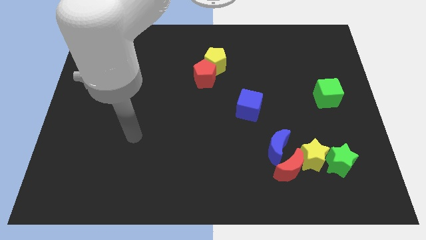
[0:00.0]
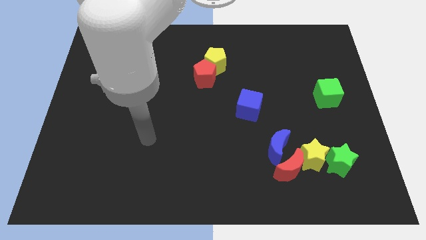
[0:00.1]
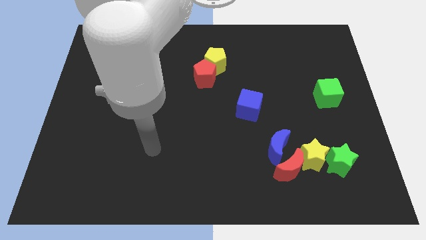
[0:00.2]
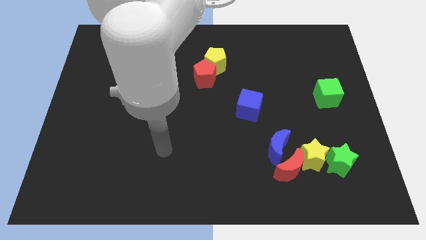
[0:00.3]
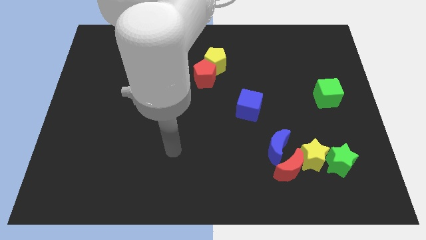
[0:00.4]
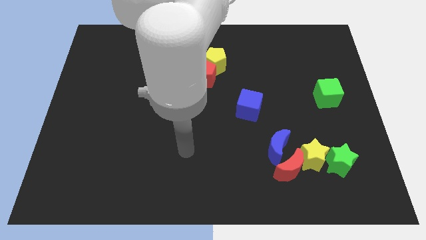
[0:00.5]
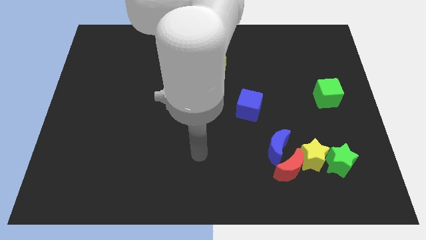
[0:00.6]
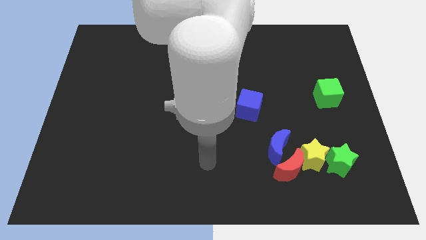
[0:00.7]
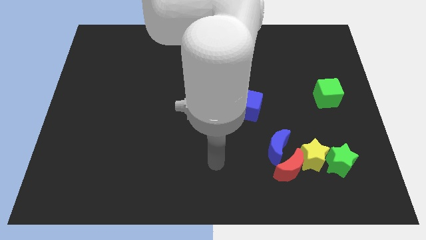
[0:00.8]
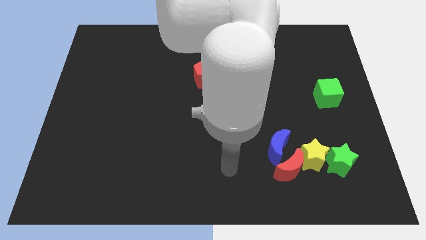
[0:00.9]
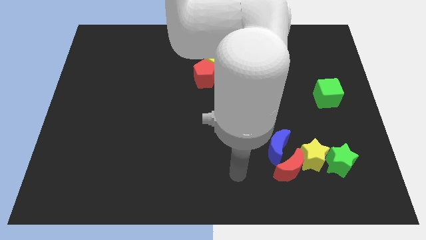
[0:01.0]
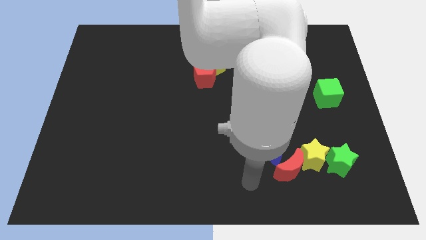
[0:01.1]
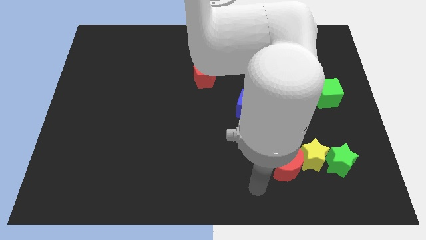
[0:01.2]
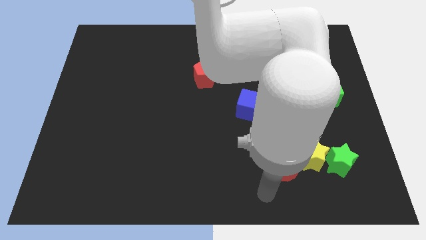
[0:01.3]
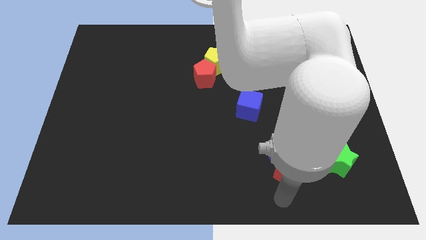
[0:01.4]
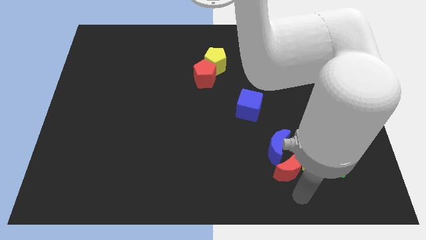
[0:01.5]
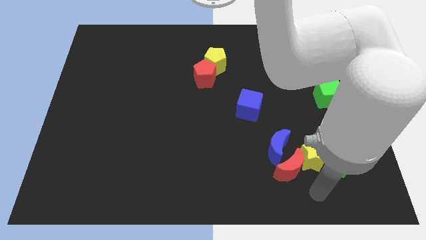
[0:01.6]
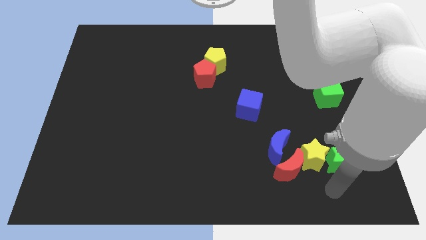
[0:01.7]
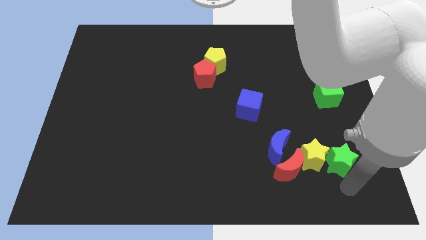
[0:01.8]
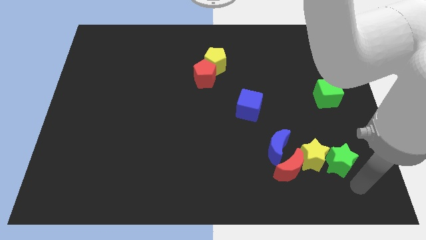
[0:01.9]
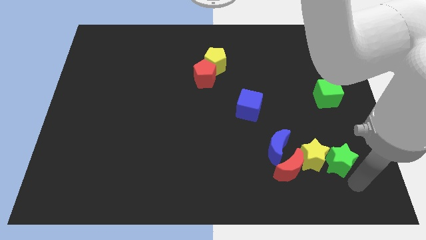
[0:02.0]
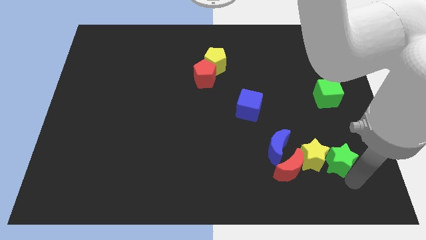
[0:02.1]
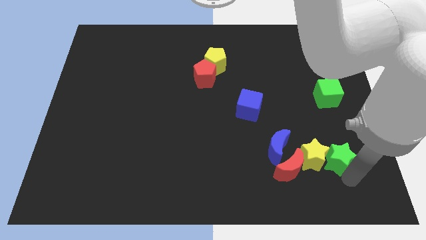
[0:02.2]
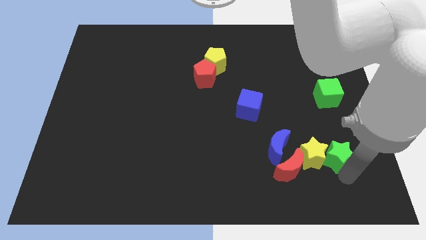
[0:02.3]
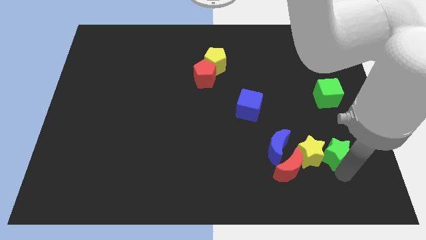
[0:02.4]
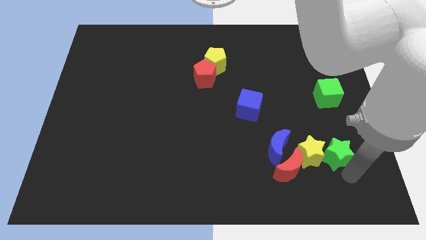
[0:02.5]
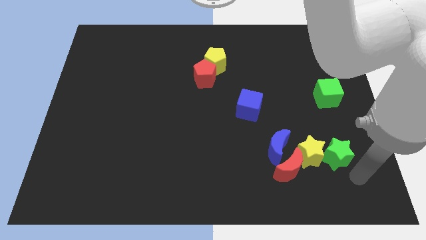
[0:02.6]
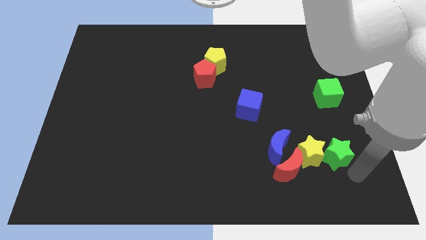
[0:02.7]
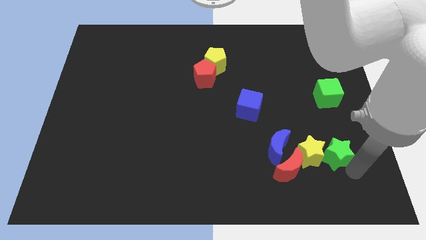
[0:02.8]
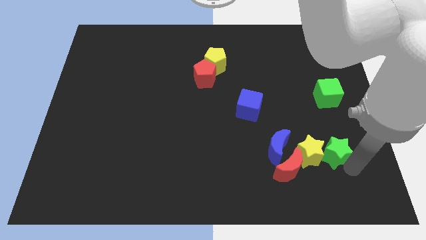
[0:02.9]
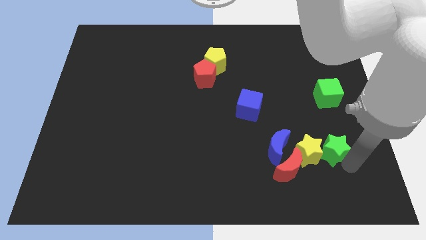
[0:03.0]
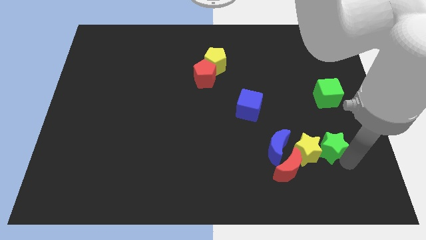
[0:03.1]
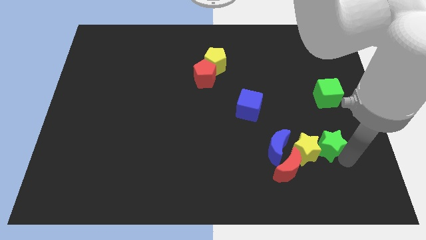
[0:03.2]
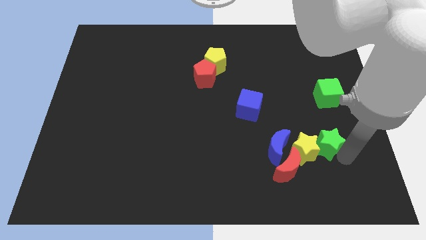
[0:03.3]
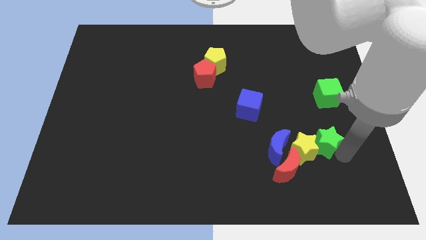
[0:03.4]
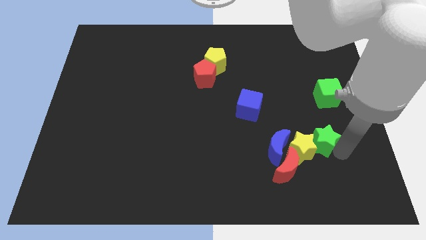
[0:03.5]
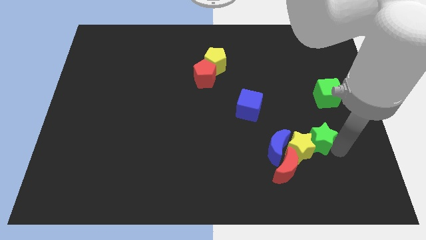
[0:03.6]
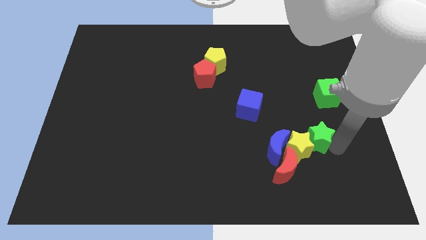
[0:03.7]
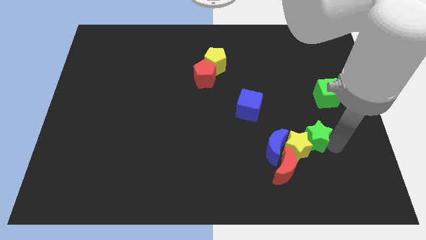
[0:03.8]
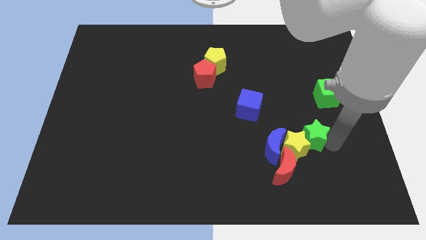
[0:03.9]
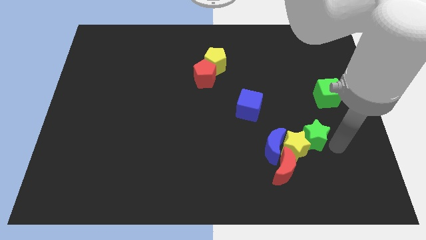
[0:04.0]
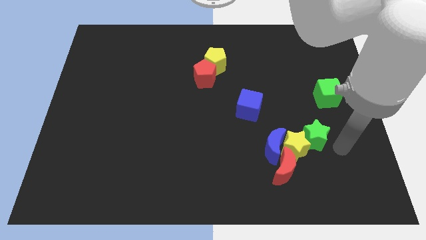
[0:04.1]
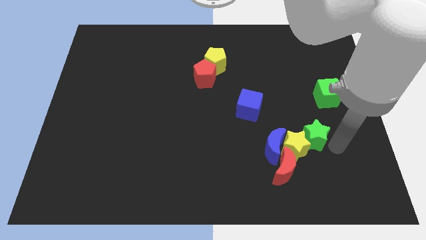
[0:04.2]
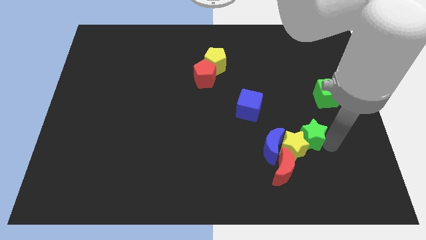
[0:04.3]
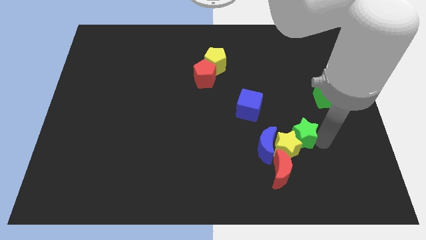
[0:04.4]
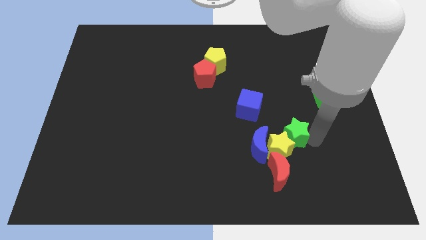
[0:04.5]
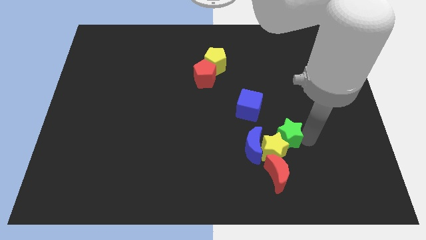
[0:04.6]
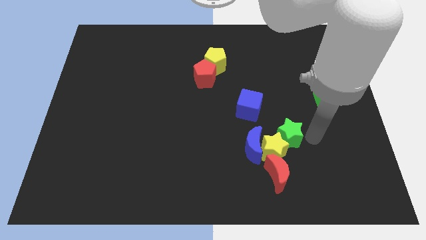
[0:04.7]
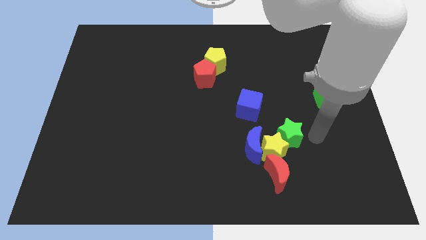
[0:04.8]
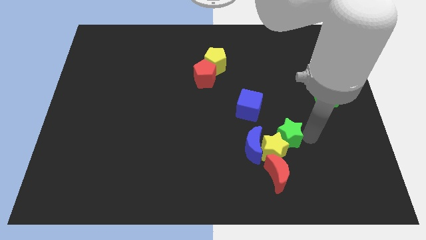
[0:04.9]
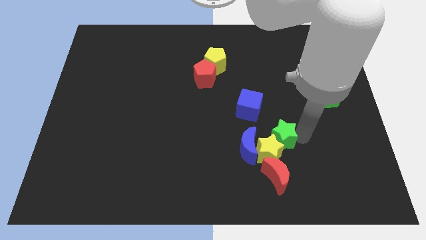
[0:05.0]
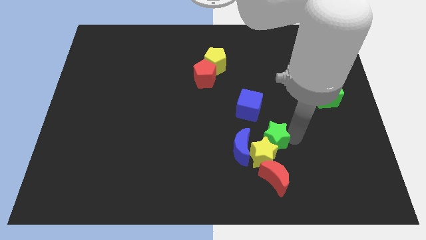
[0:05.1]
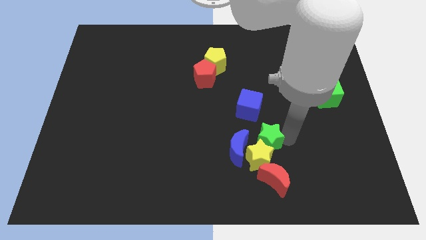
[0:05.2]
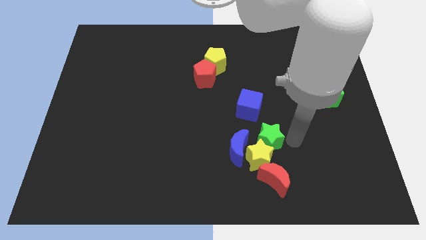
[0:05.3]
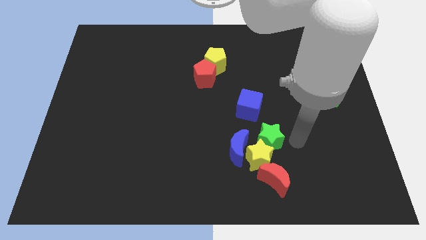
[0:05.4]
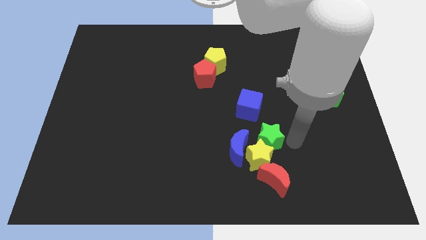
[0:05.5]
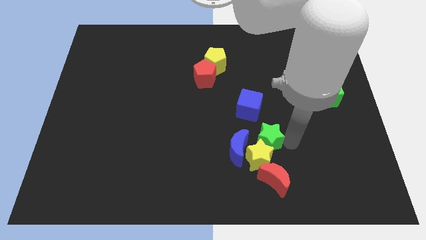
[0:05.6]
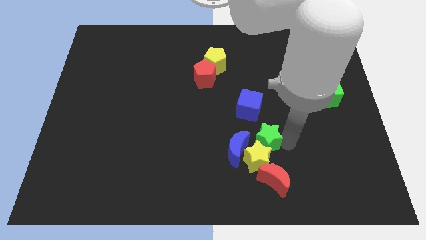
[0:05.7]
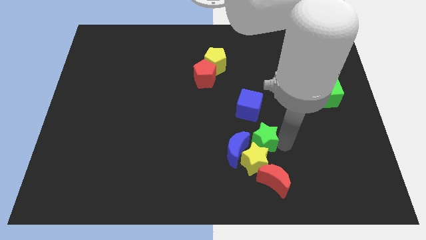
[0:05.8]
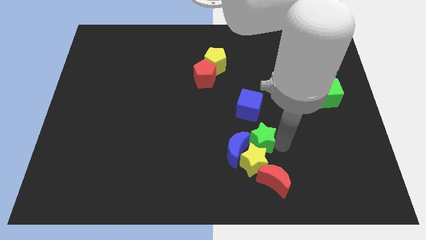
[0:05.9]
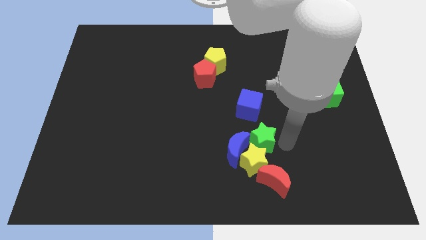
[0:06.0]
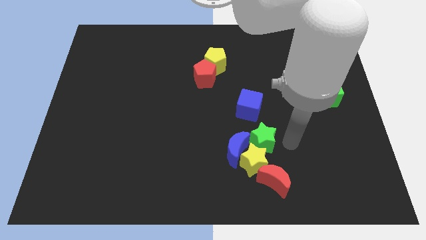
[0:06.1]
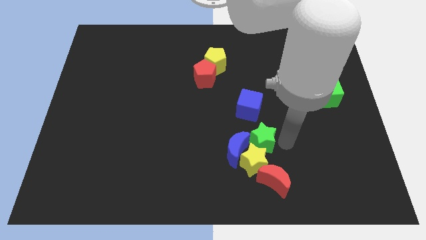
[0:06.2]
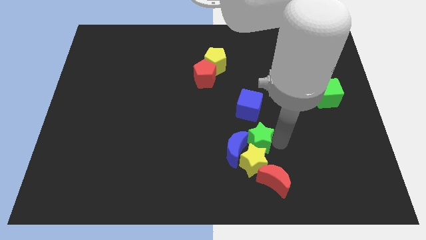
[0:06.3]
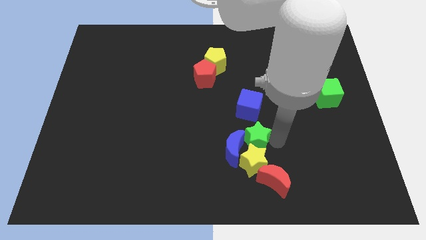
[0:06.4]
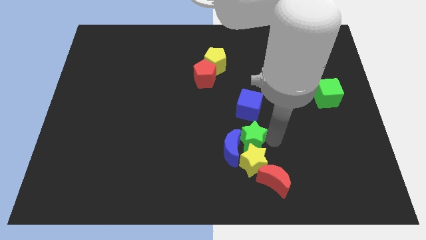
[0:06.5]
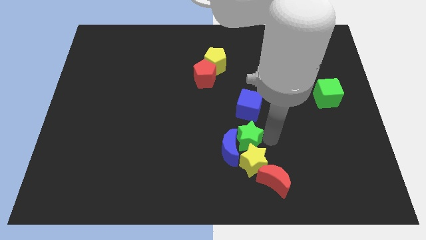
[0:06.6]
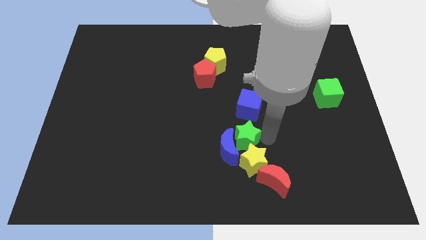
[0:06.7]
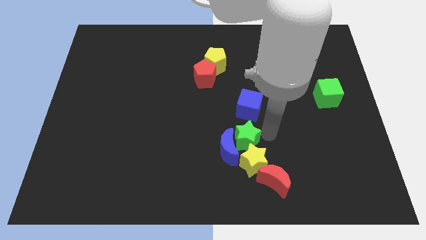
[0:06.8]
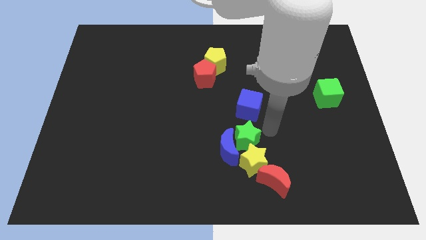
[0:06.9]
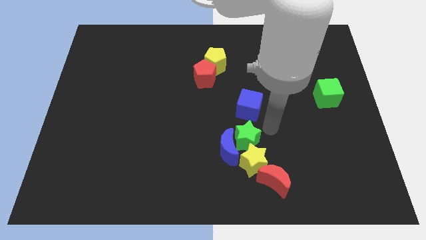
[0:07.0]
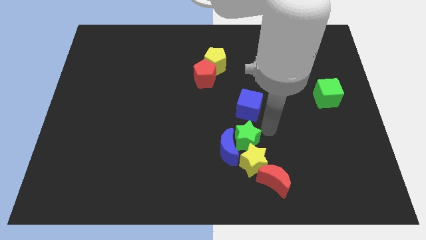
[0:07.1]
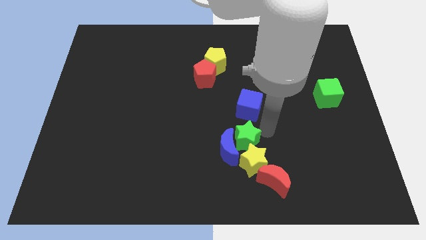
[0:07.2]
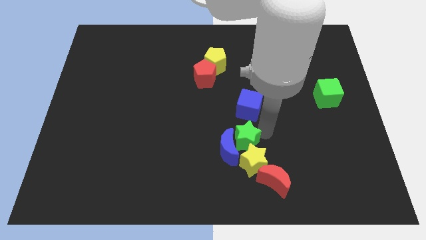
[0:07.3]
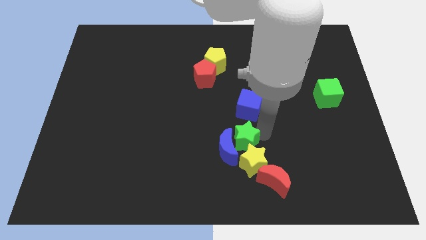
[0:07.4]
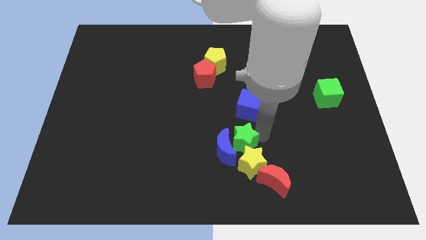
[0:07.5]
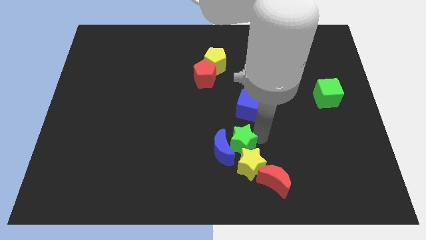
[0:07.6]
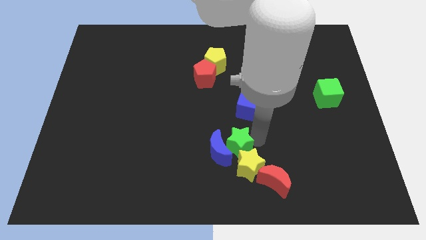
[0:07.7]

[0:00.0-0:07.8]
slide the green star left

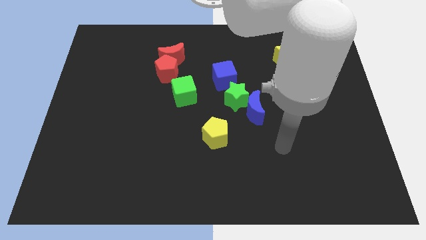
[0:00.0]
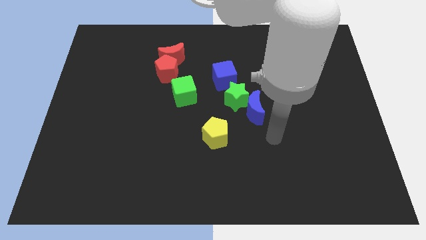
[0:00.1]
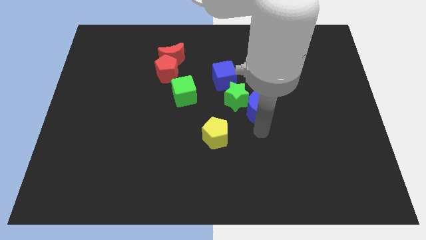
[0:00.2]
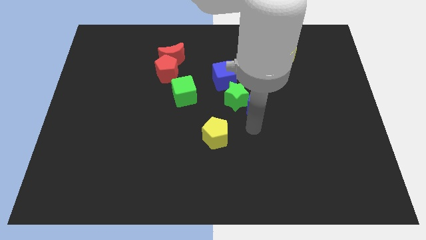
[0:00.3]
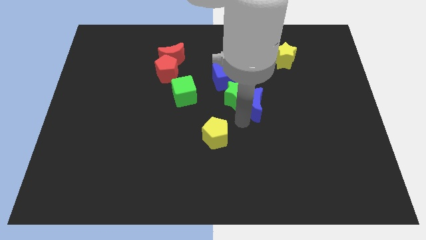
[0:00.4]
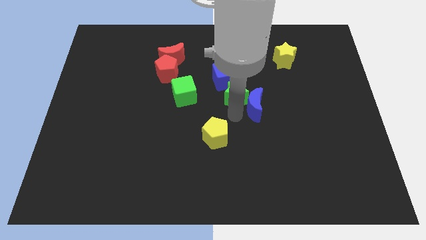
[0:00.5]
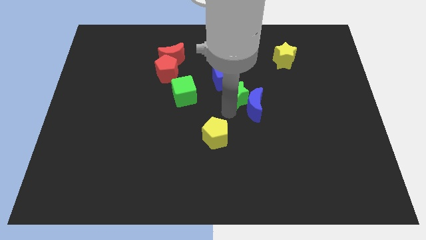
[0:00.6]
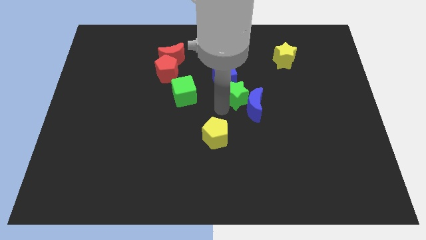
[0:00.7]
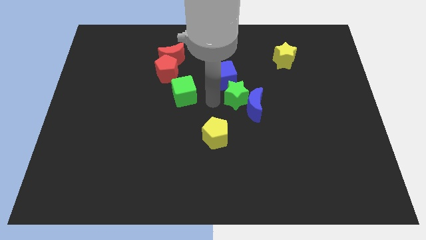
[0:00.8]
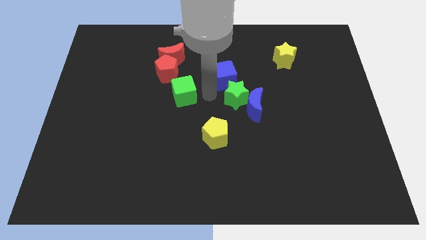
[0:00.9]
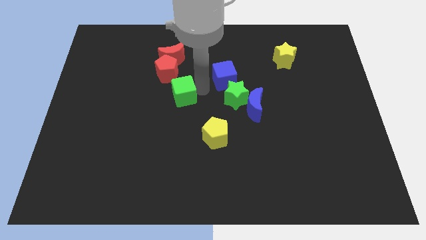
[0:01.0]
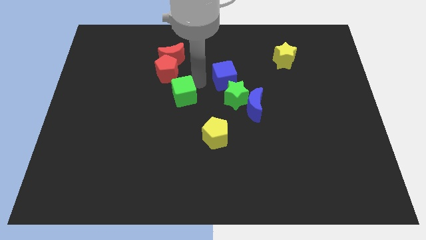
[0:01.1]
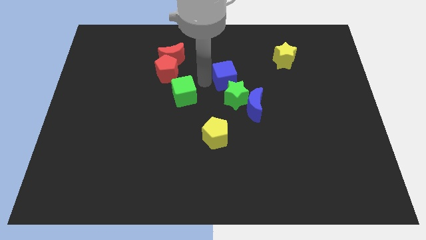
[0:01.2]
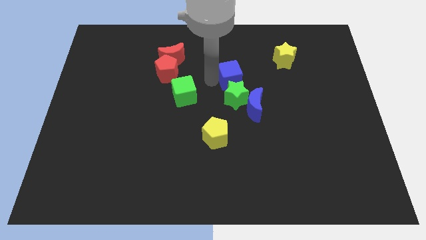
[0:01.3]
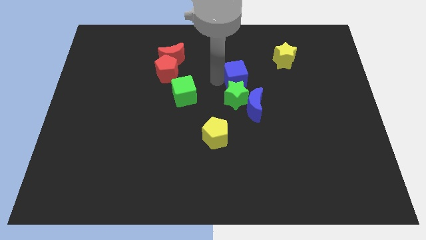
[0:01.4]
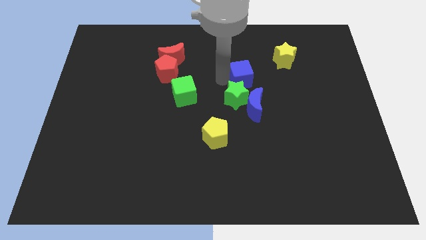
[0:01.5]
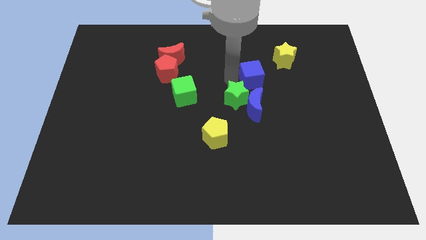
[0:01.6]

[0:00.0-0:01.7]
push the blue cube right slightly
